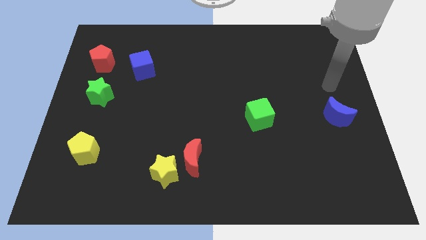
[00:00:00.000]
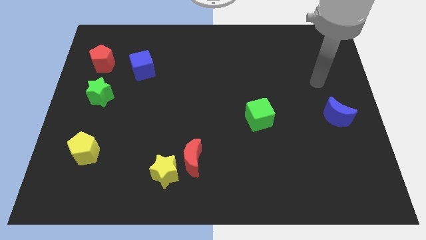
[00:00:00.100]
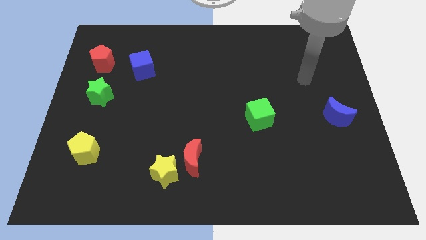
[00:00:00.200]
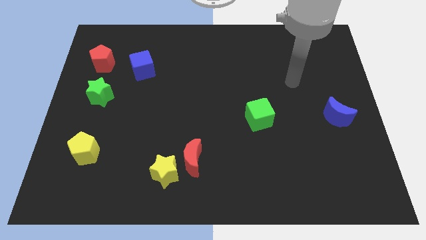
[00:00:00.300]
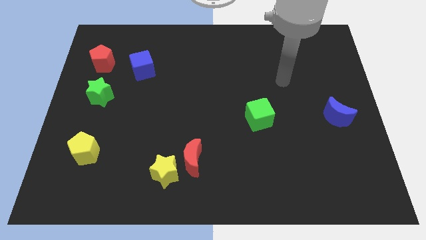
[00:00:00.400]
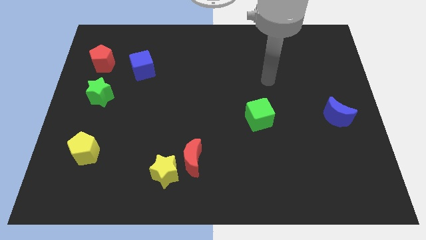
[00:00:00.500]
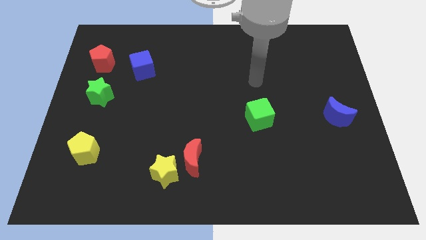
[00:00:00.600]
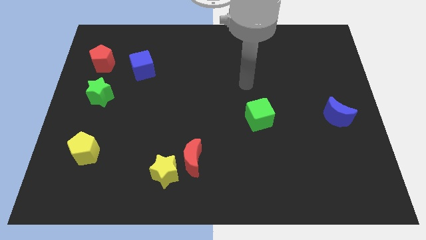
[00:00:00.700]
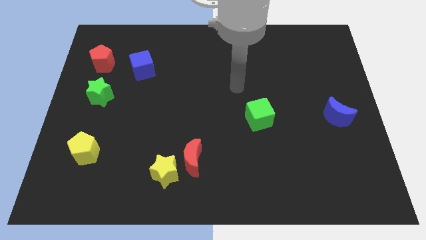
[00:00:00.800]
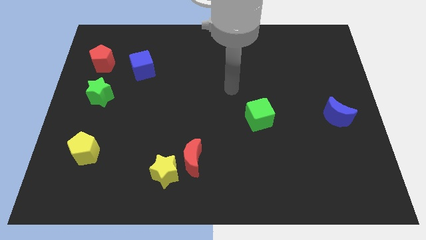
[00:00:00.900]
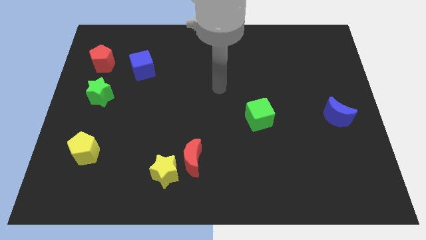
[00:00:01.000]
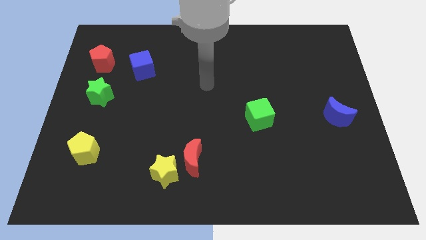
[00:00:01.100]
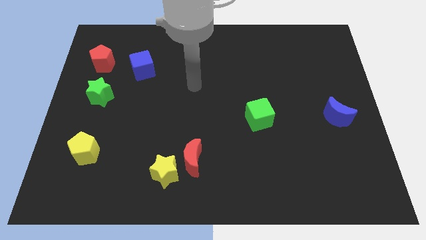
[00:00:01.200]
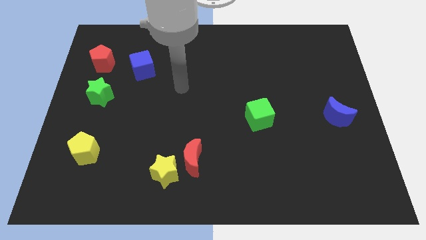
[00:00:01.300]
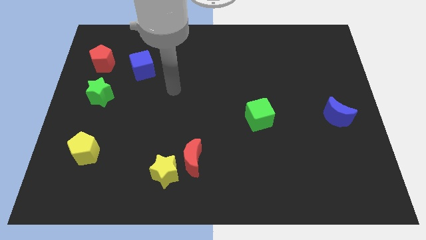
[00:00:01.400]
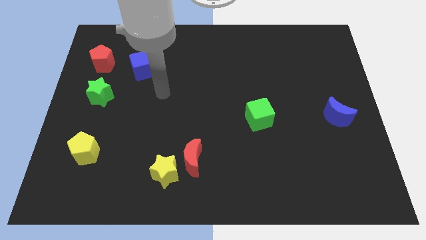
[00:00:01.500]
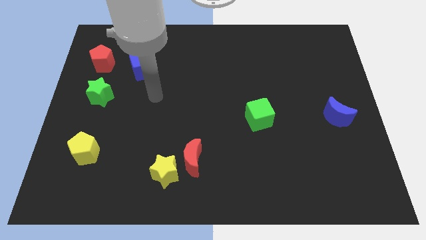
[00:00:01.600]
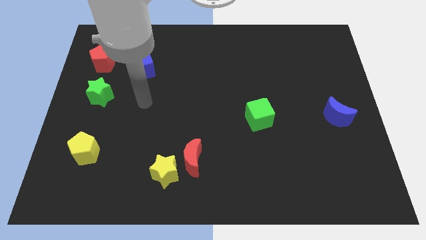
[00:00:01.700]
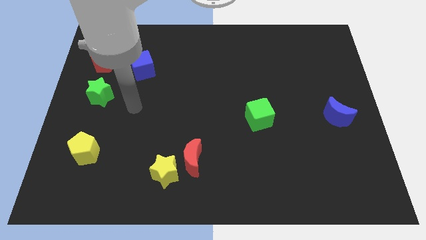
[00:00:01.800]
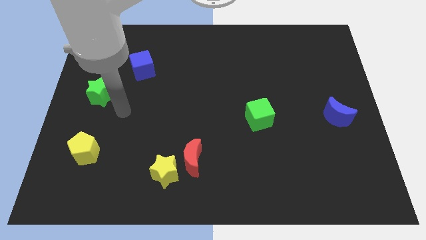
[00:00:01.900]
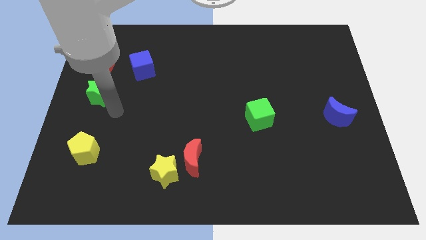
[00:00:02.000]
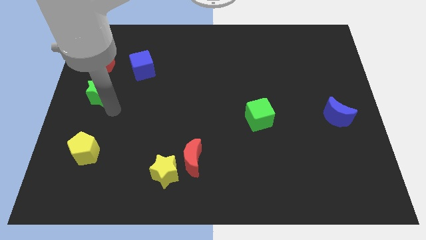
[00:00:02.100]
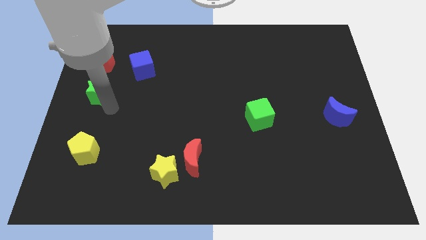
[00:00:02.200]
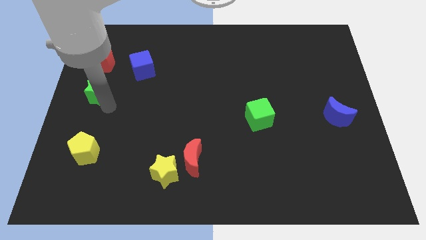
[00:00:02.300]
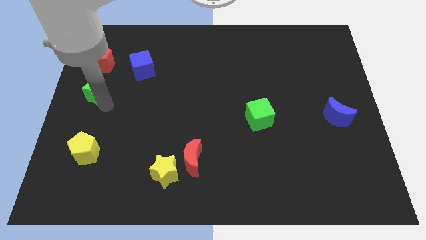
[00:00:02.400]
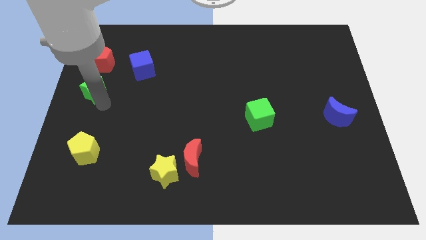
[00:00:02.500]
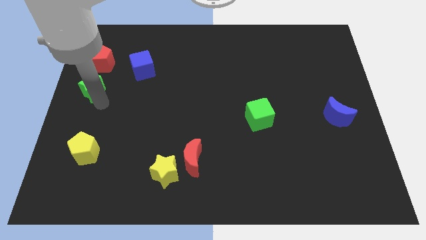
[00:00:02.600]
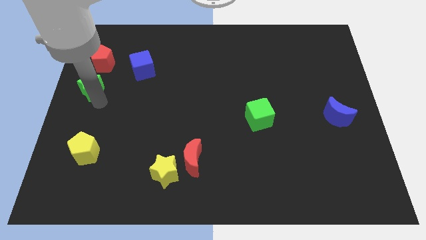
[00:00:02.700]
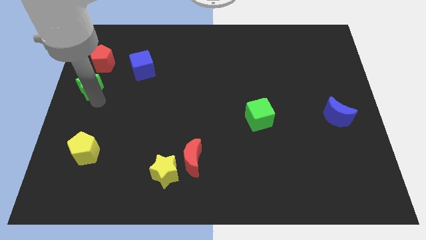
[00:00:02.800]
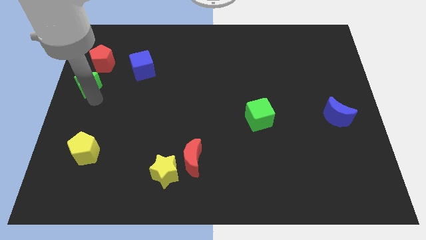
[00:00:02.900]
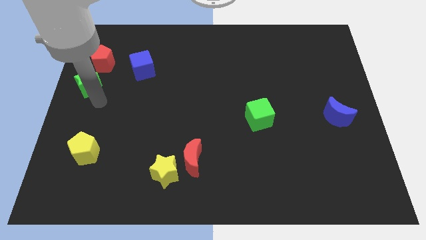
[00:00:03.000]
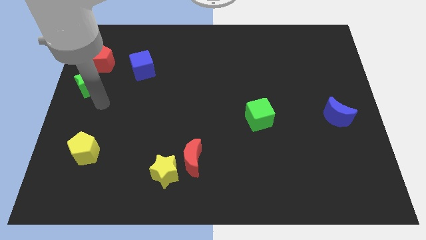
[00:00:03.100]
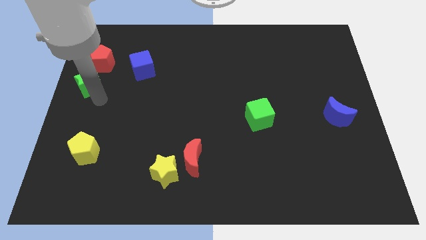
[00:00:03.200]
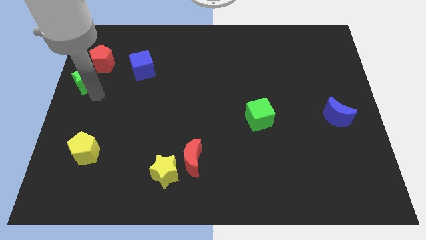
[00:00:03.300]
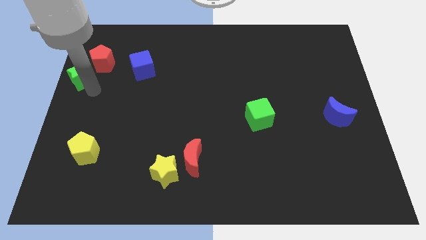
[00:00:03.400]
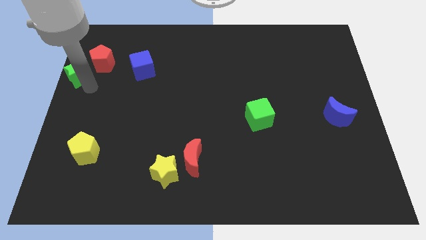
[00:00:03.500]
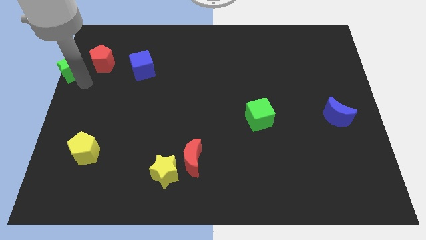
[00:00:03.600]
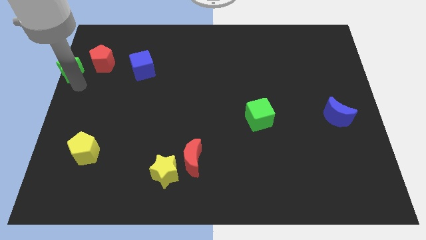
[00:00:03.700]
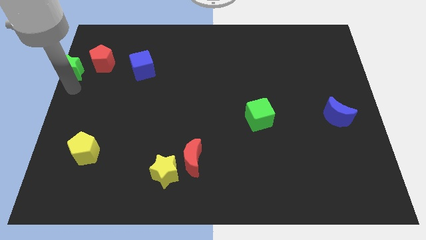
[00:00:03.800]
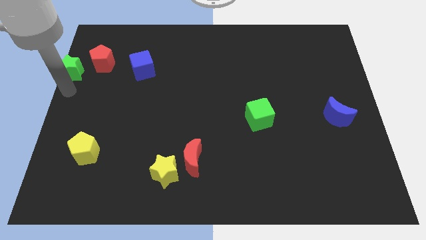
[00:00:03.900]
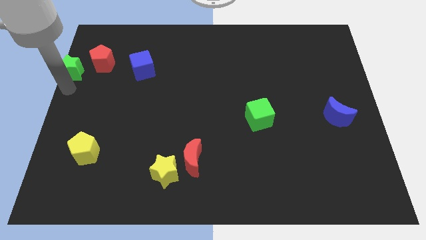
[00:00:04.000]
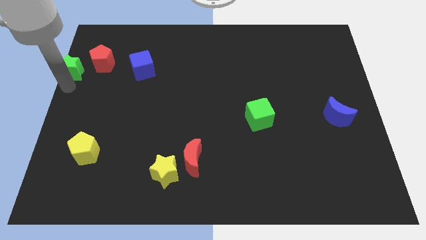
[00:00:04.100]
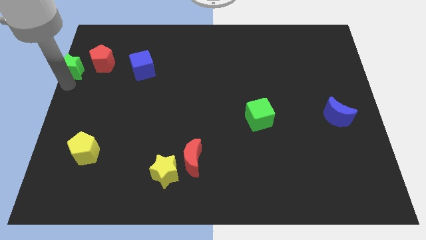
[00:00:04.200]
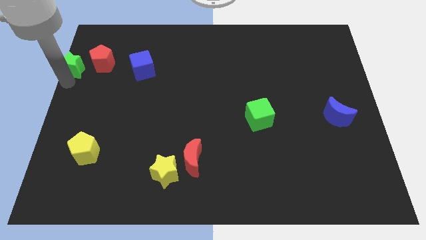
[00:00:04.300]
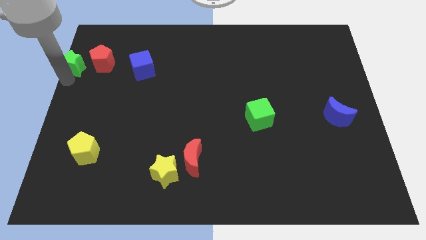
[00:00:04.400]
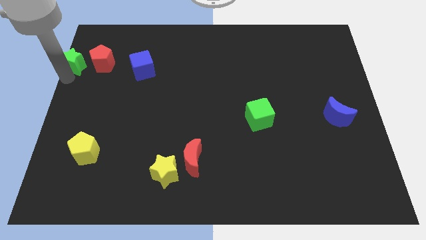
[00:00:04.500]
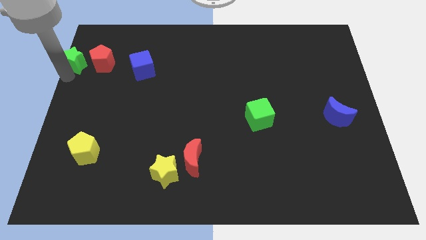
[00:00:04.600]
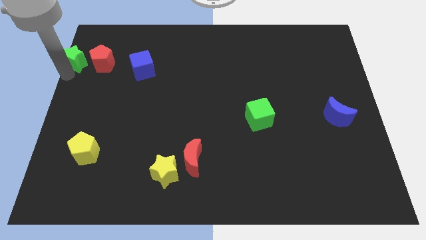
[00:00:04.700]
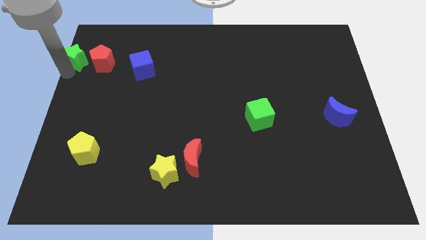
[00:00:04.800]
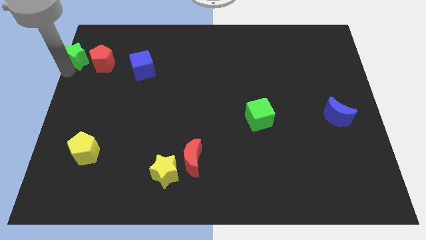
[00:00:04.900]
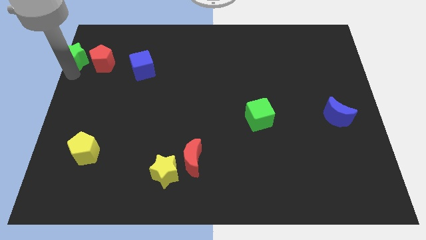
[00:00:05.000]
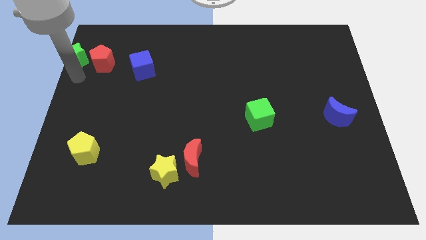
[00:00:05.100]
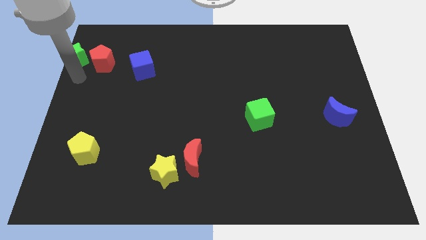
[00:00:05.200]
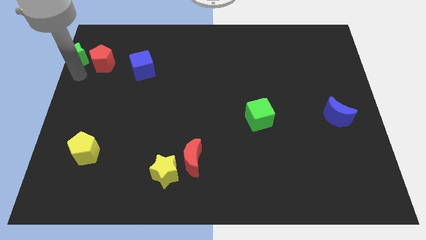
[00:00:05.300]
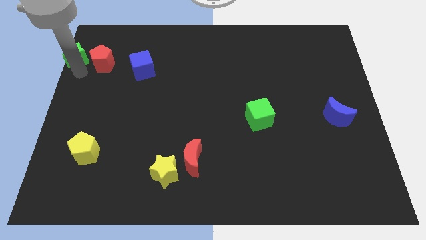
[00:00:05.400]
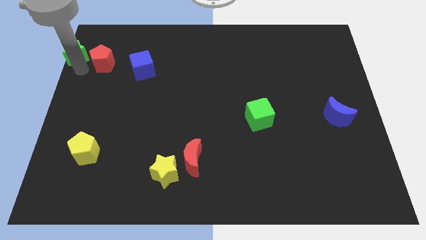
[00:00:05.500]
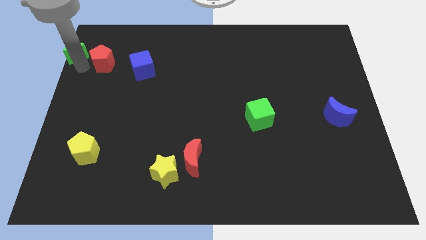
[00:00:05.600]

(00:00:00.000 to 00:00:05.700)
slide the green star to the top left of the board
